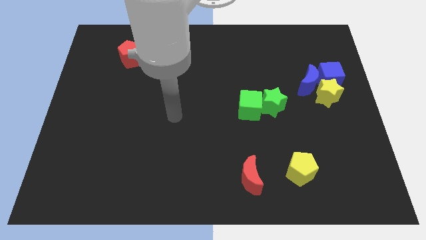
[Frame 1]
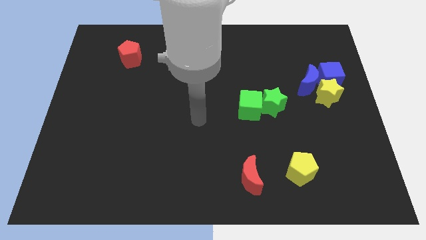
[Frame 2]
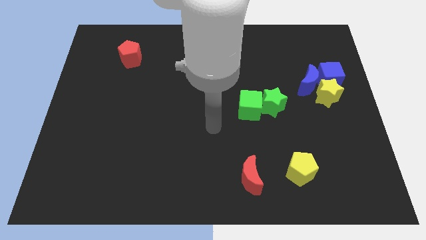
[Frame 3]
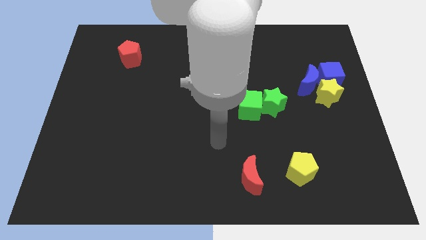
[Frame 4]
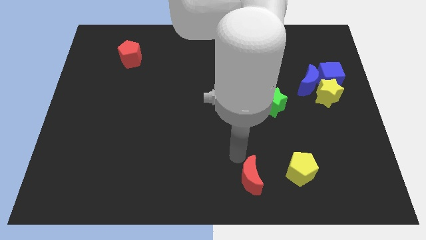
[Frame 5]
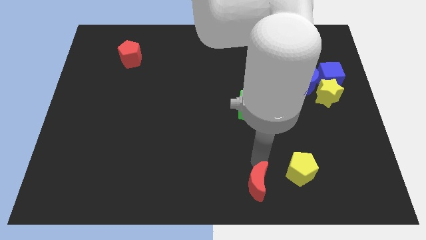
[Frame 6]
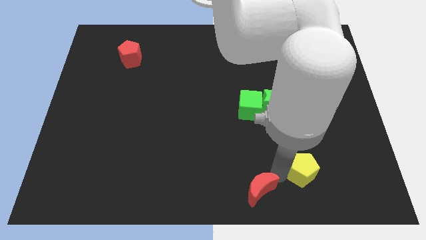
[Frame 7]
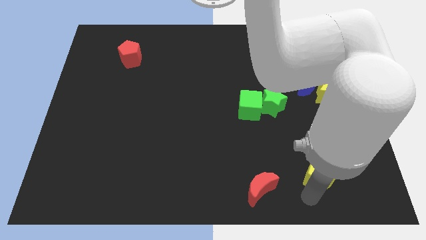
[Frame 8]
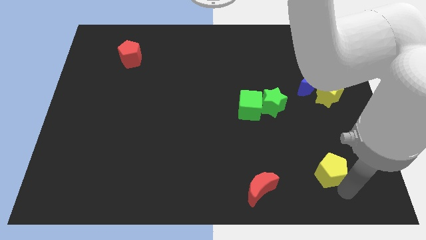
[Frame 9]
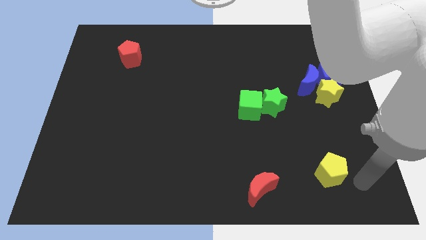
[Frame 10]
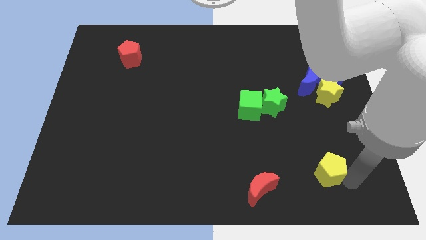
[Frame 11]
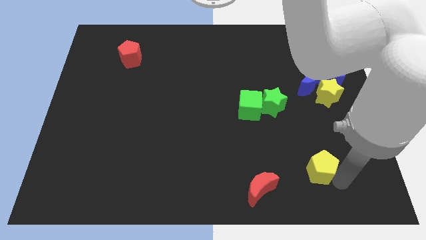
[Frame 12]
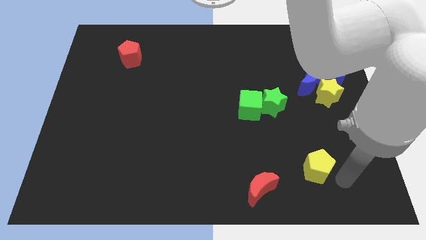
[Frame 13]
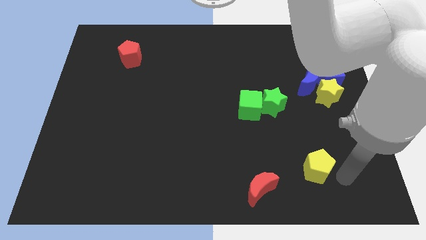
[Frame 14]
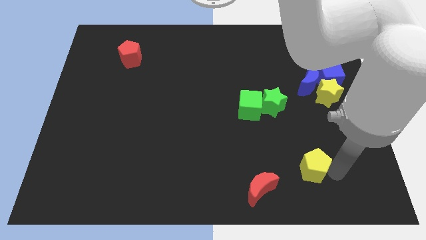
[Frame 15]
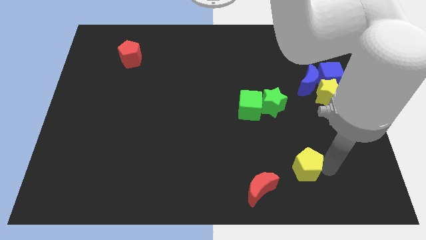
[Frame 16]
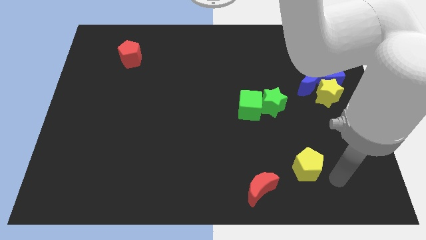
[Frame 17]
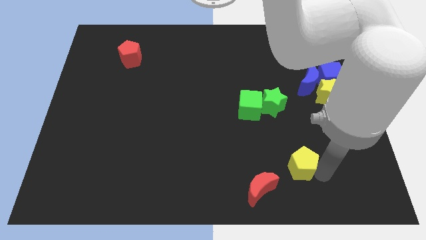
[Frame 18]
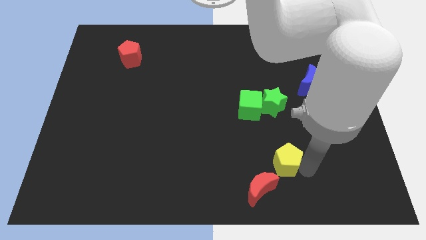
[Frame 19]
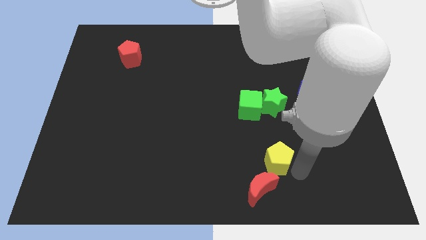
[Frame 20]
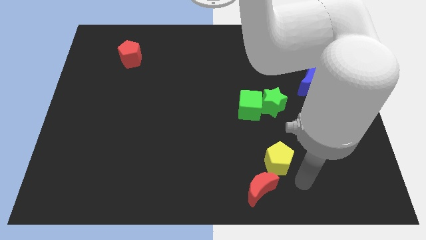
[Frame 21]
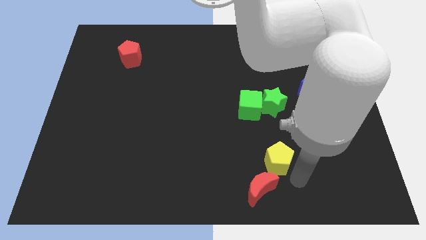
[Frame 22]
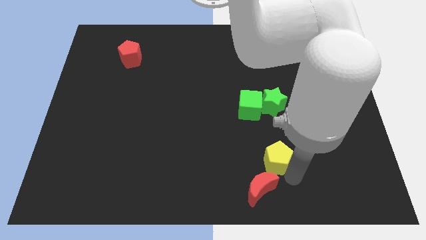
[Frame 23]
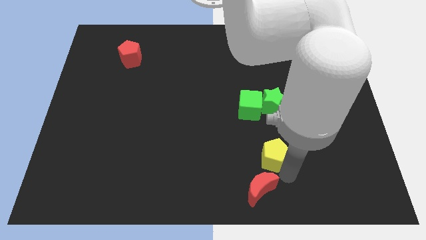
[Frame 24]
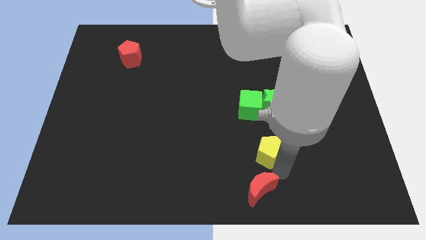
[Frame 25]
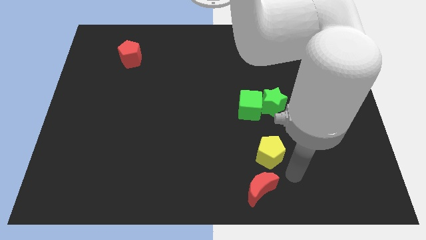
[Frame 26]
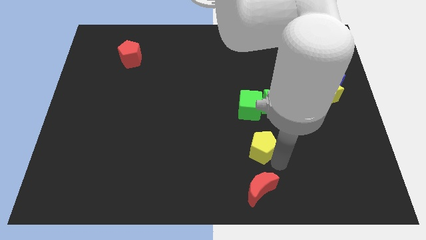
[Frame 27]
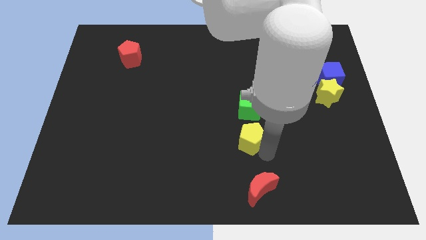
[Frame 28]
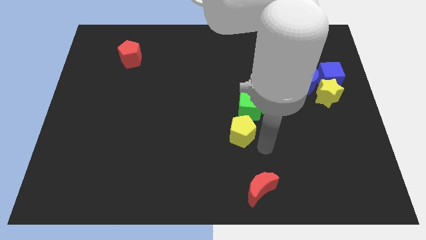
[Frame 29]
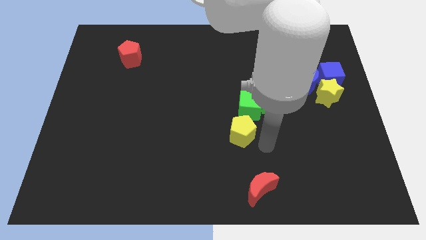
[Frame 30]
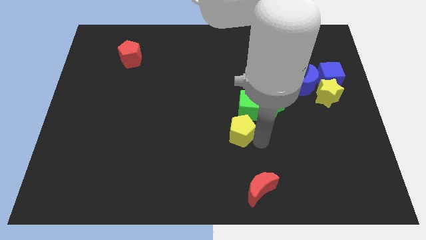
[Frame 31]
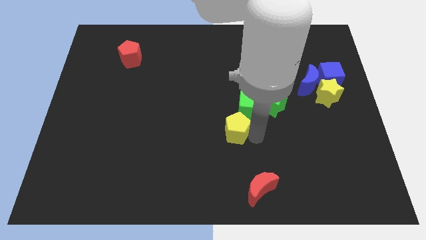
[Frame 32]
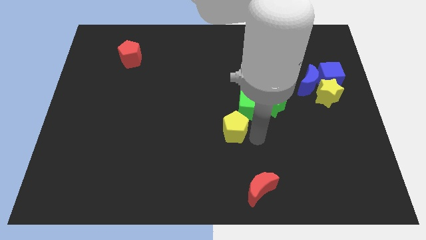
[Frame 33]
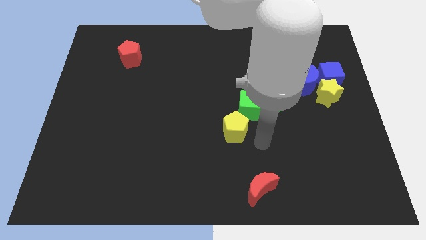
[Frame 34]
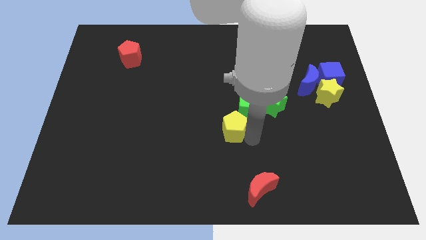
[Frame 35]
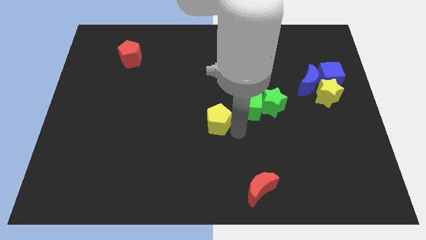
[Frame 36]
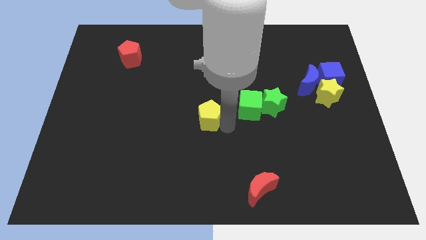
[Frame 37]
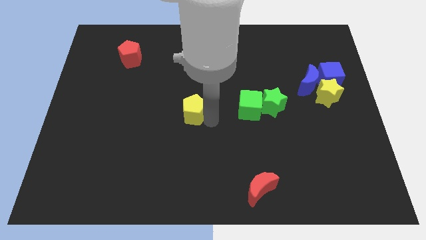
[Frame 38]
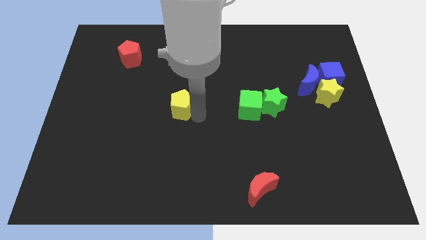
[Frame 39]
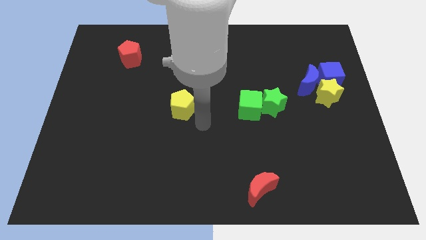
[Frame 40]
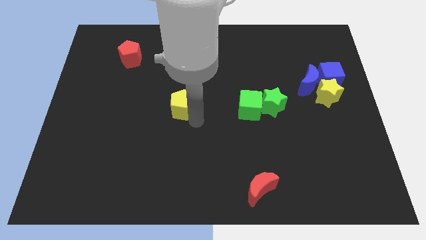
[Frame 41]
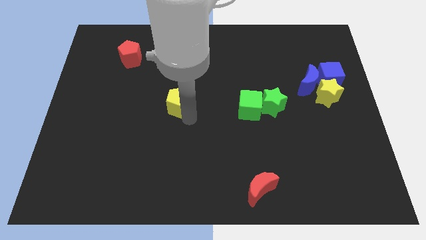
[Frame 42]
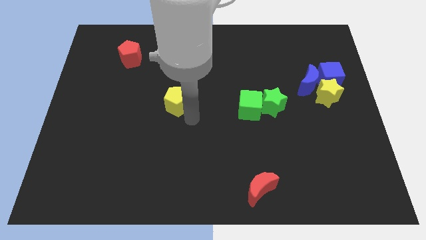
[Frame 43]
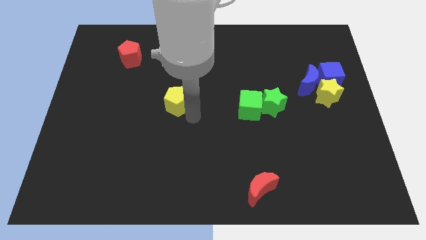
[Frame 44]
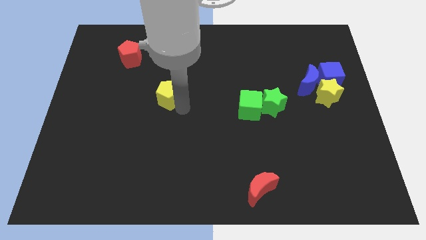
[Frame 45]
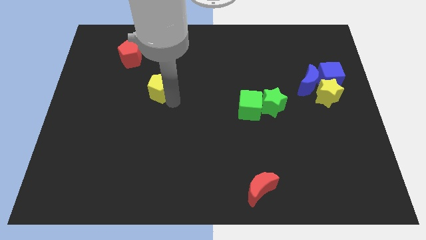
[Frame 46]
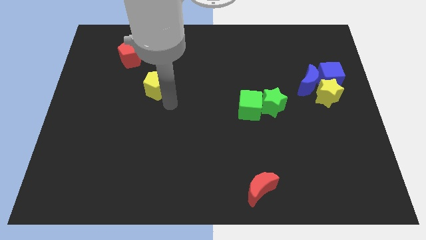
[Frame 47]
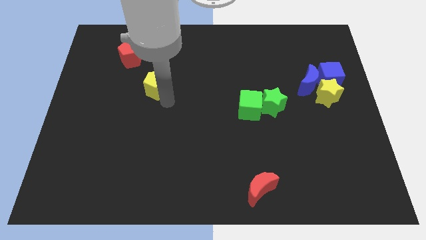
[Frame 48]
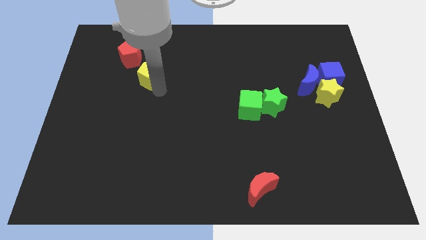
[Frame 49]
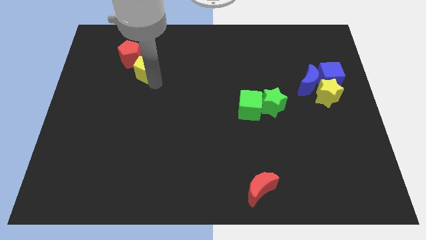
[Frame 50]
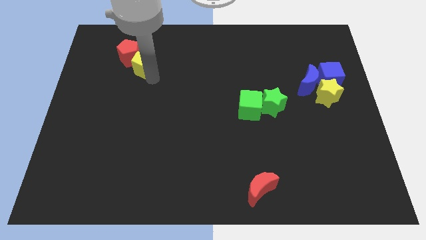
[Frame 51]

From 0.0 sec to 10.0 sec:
slide the yellow pentagon close to the red pentagon

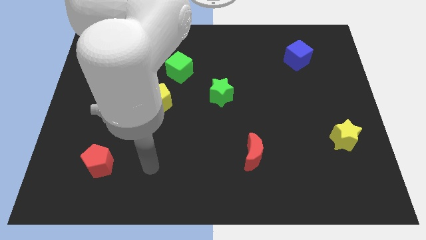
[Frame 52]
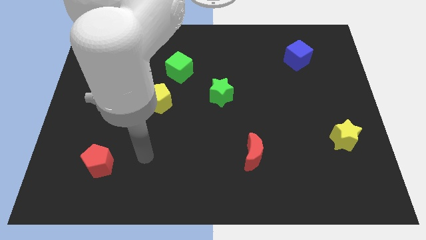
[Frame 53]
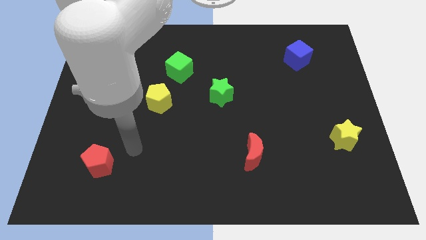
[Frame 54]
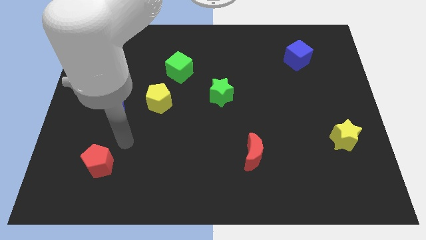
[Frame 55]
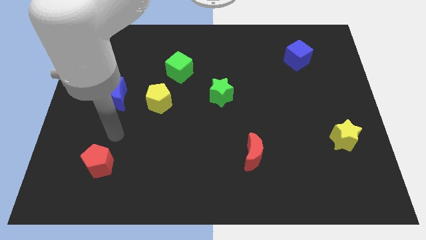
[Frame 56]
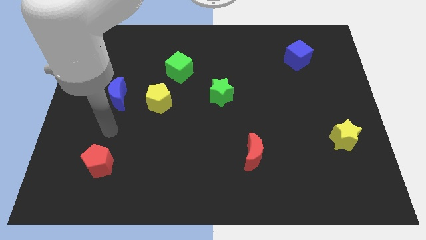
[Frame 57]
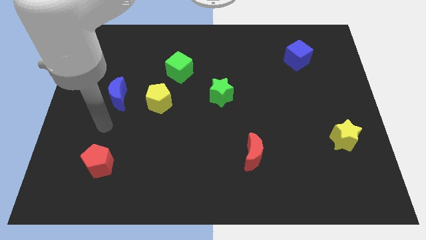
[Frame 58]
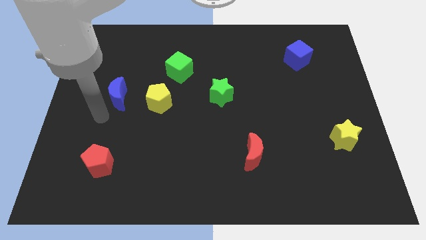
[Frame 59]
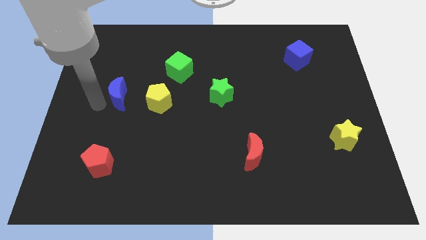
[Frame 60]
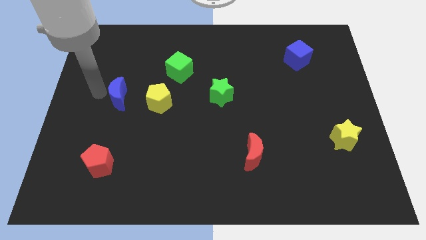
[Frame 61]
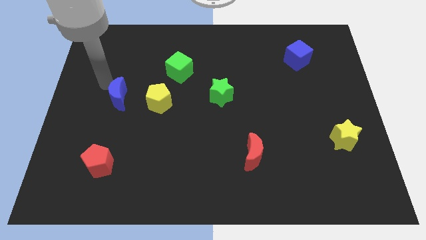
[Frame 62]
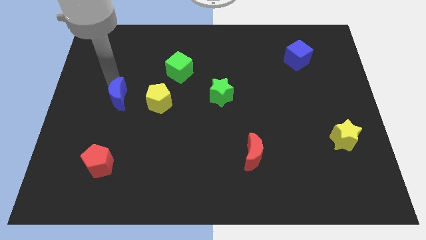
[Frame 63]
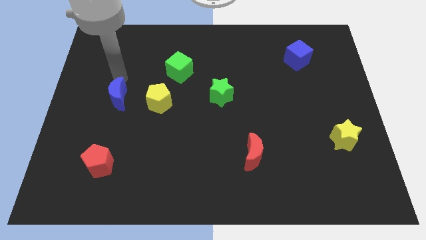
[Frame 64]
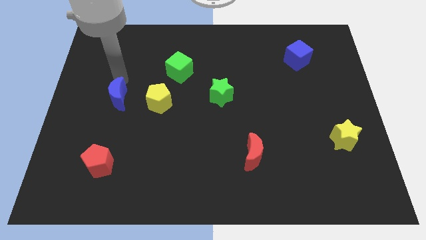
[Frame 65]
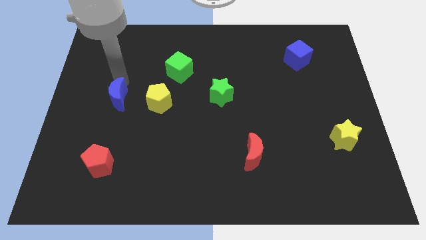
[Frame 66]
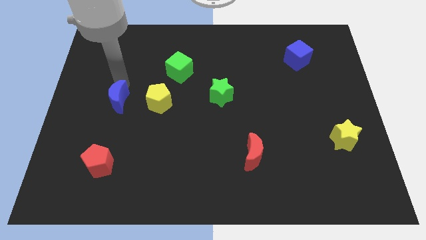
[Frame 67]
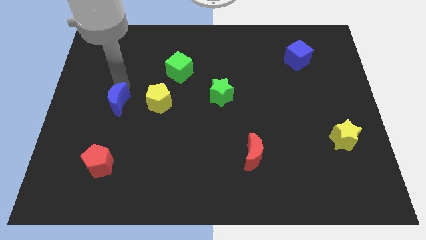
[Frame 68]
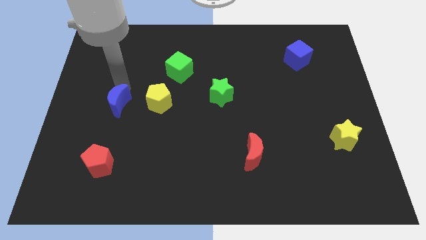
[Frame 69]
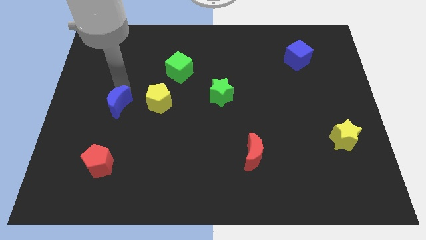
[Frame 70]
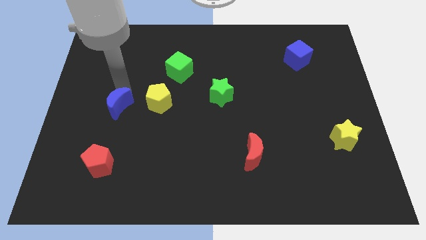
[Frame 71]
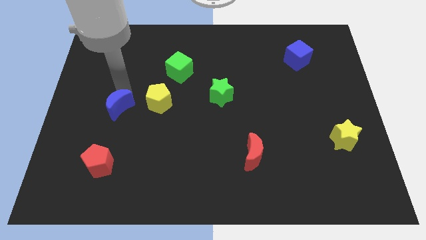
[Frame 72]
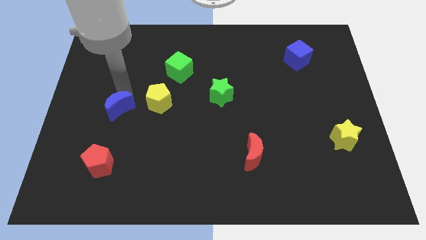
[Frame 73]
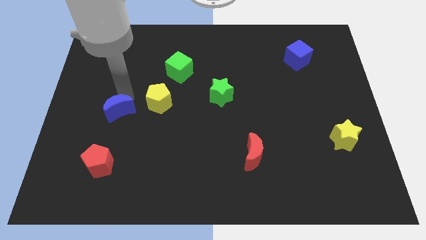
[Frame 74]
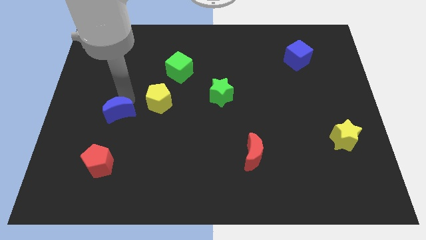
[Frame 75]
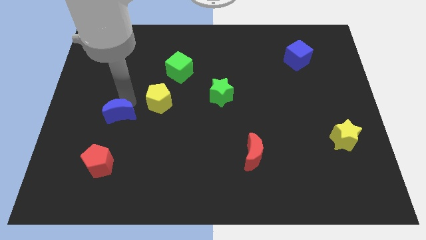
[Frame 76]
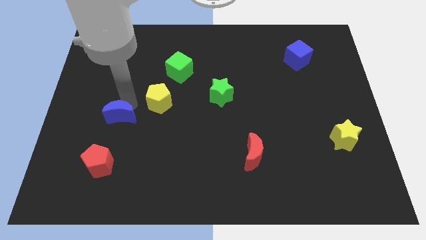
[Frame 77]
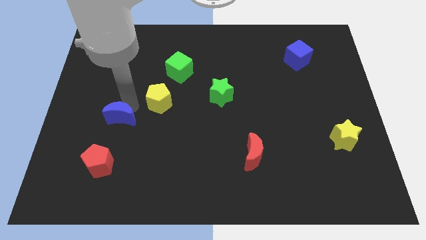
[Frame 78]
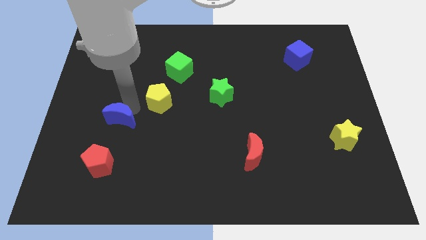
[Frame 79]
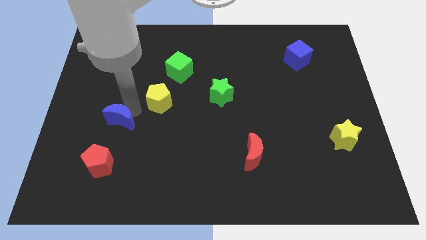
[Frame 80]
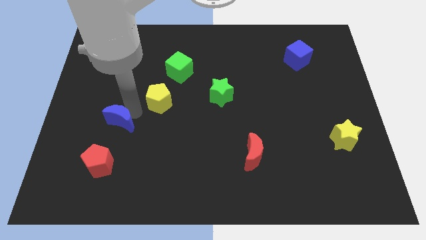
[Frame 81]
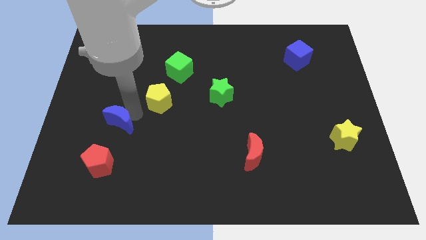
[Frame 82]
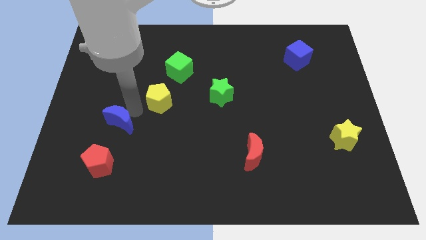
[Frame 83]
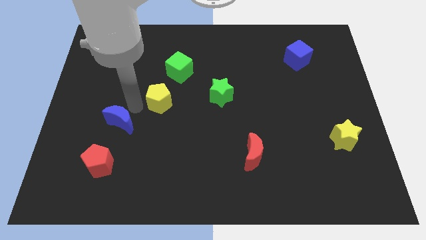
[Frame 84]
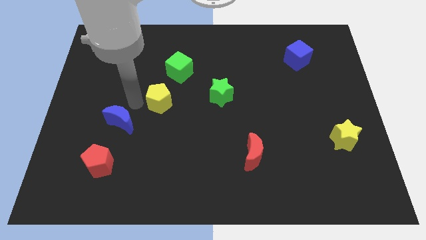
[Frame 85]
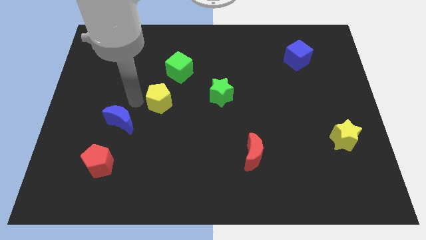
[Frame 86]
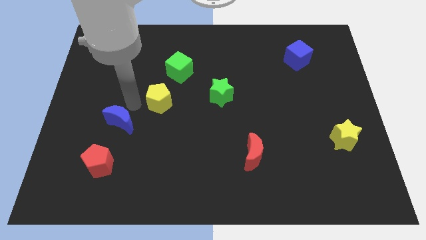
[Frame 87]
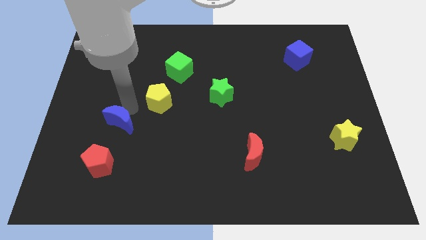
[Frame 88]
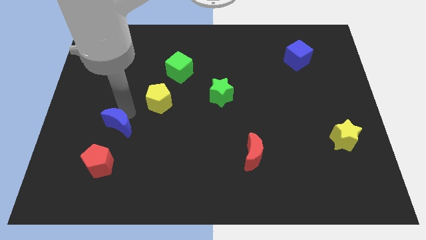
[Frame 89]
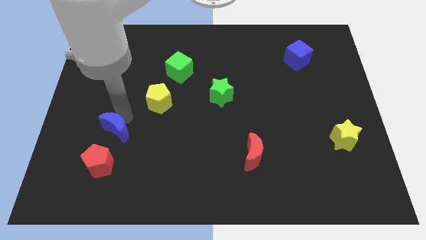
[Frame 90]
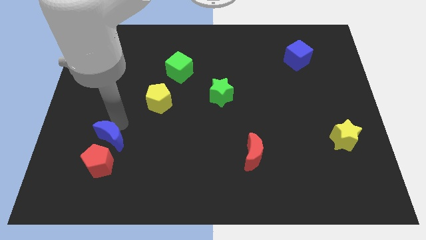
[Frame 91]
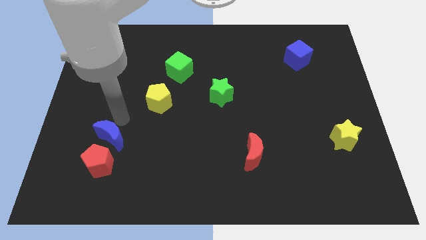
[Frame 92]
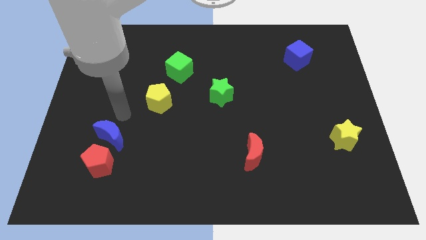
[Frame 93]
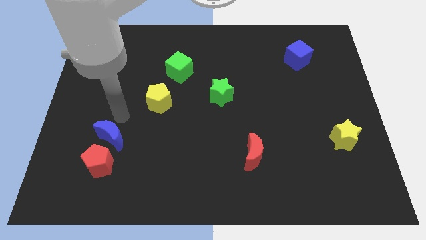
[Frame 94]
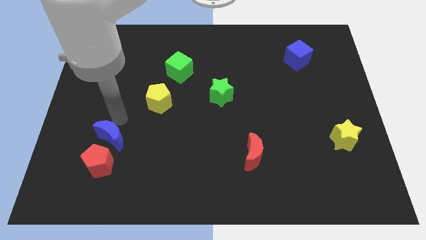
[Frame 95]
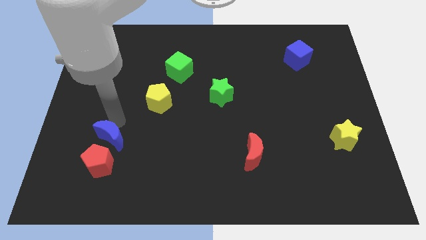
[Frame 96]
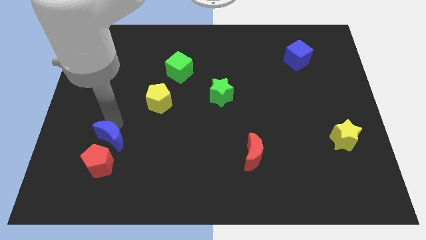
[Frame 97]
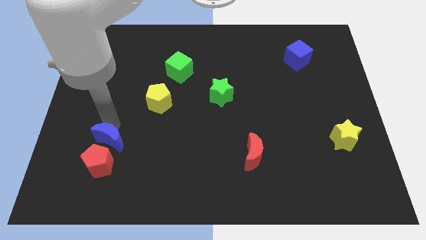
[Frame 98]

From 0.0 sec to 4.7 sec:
move the blue moon close to the red pentagon
